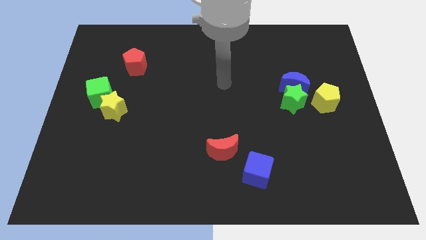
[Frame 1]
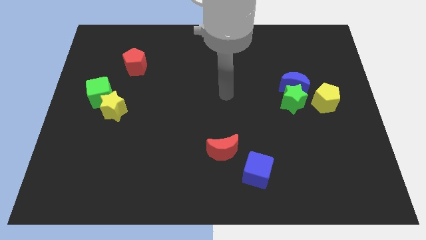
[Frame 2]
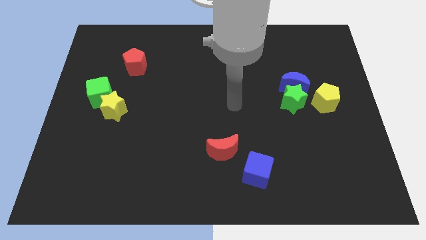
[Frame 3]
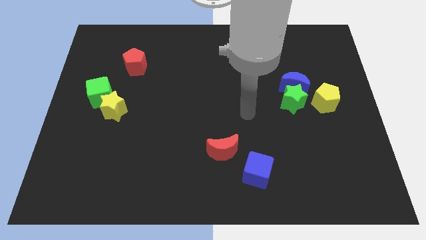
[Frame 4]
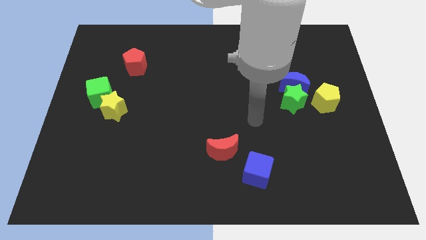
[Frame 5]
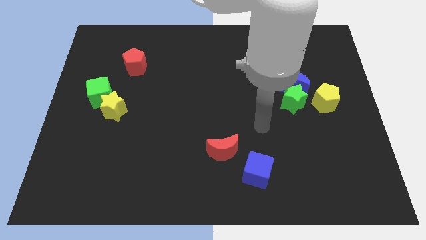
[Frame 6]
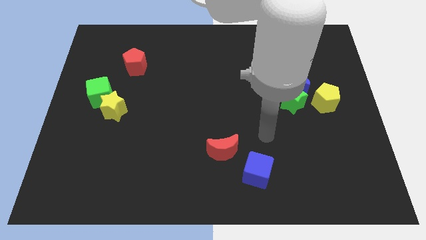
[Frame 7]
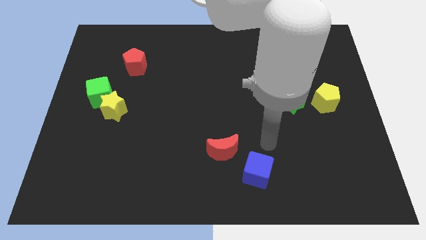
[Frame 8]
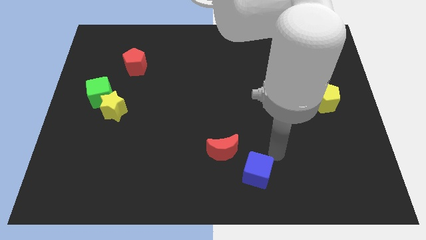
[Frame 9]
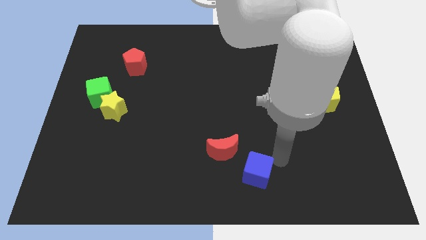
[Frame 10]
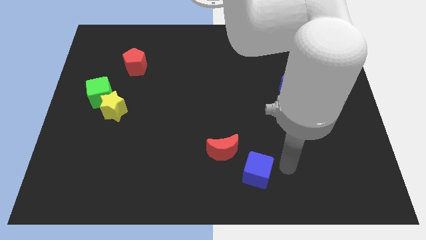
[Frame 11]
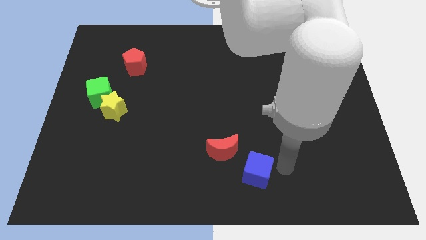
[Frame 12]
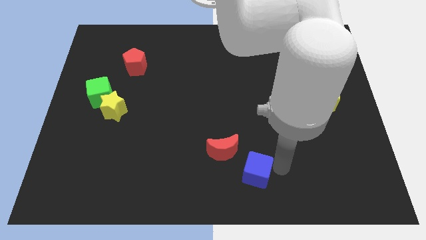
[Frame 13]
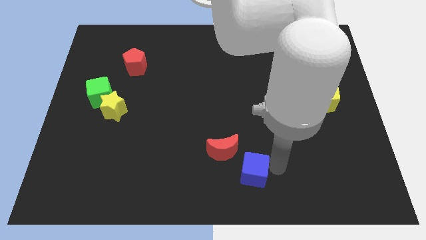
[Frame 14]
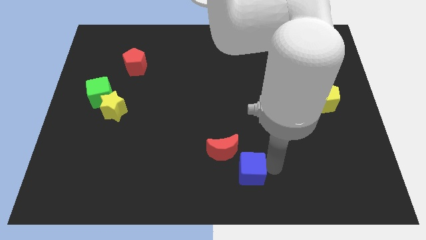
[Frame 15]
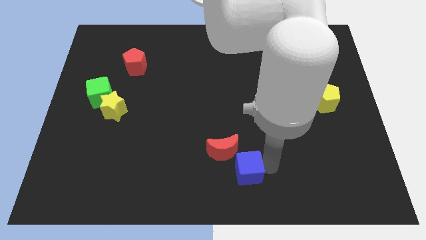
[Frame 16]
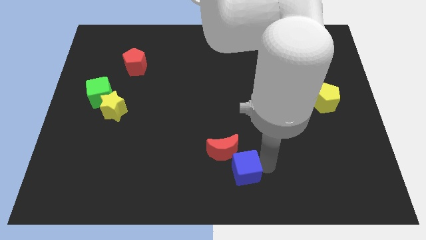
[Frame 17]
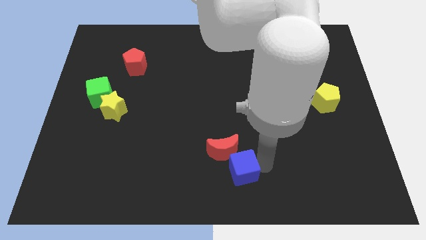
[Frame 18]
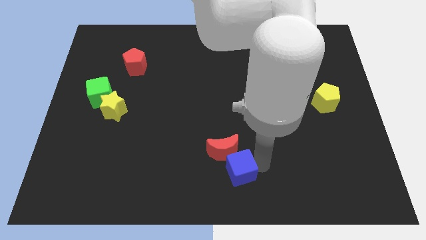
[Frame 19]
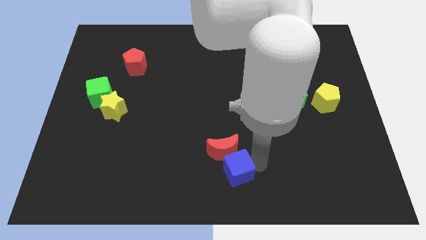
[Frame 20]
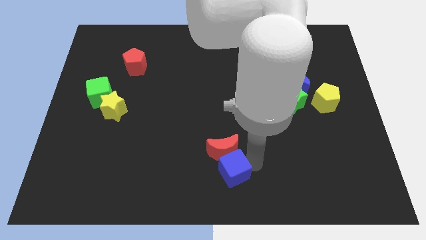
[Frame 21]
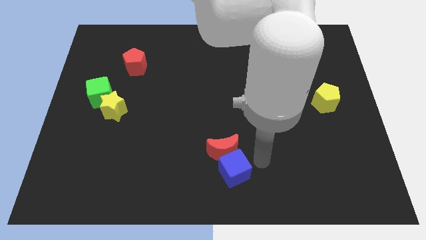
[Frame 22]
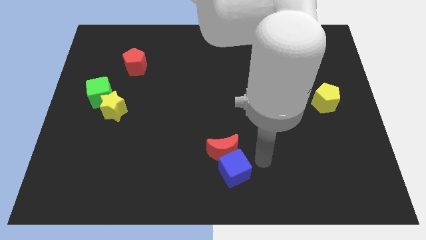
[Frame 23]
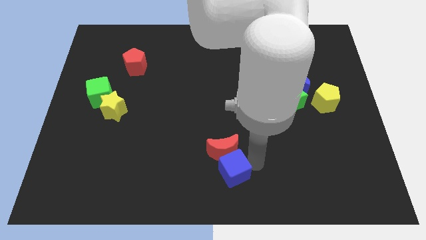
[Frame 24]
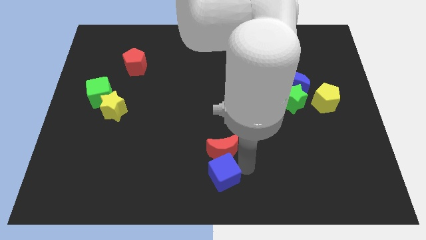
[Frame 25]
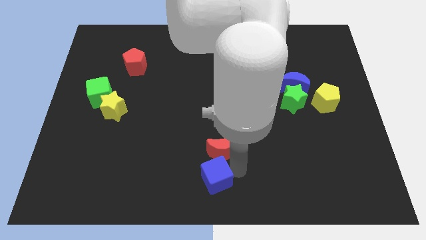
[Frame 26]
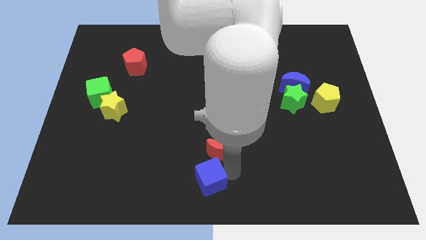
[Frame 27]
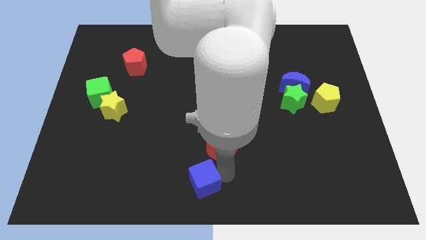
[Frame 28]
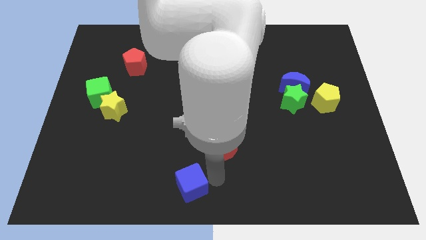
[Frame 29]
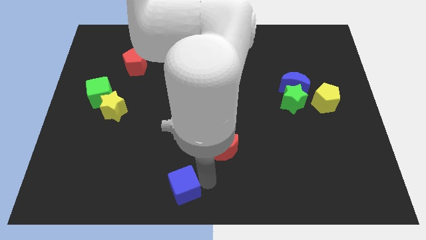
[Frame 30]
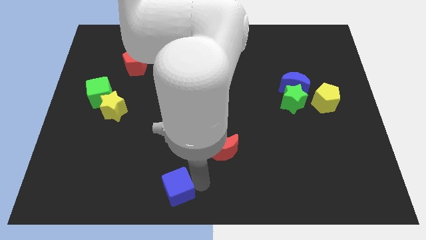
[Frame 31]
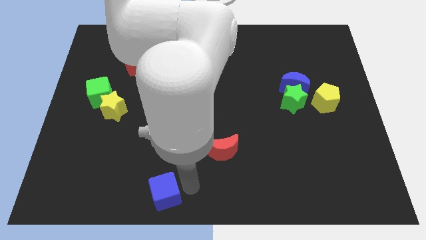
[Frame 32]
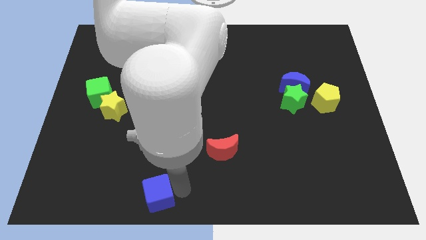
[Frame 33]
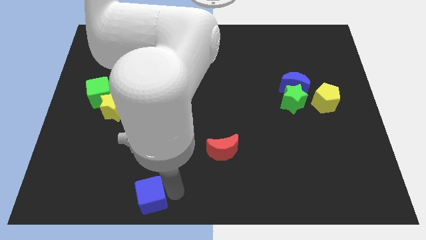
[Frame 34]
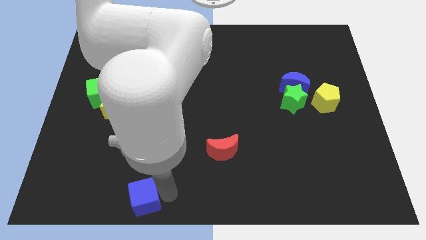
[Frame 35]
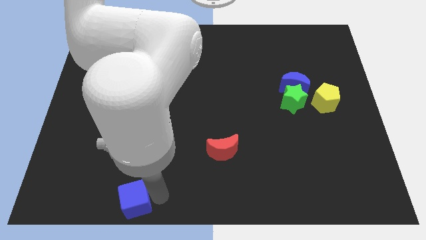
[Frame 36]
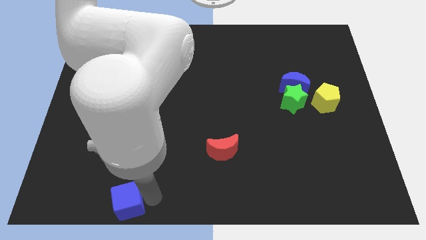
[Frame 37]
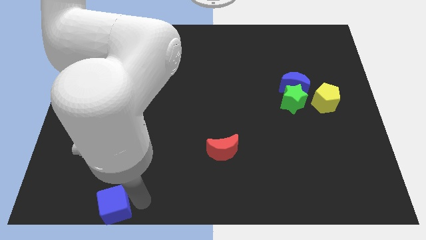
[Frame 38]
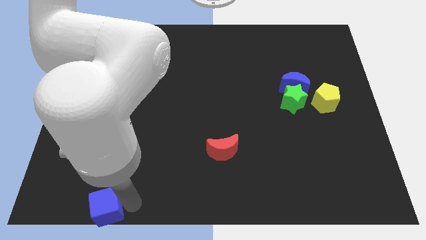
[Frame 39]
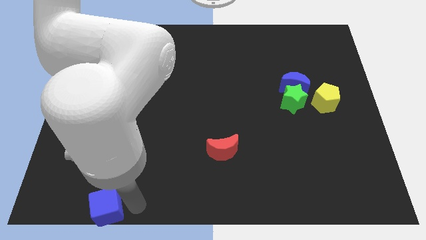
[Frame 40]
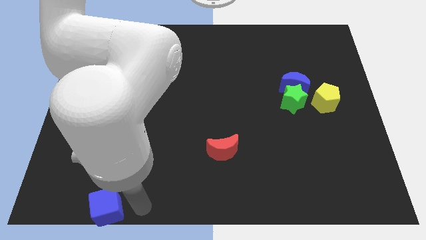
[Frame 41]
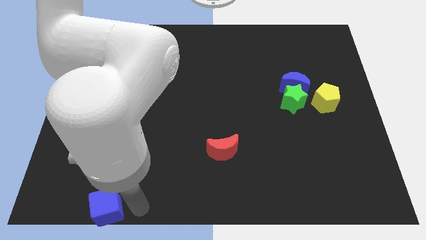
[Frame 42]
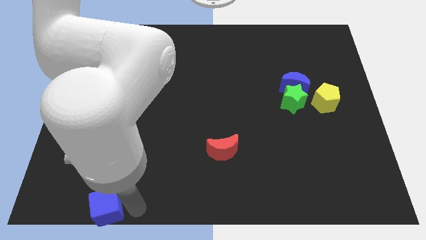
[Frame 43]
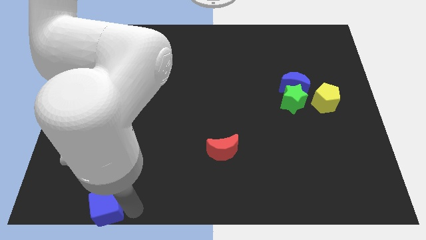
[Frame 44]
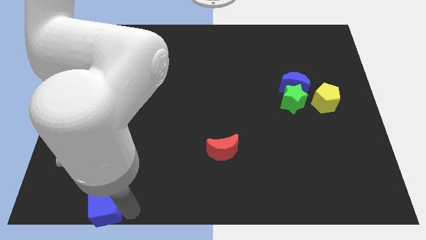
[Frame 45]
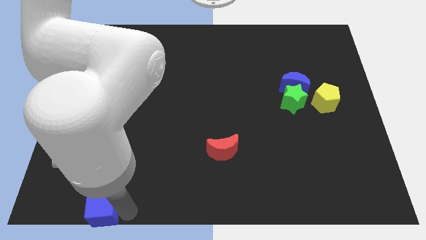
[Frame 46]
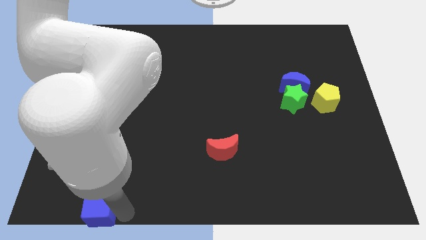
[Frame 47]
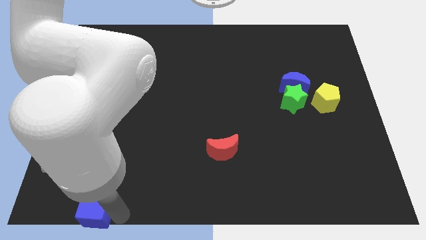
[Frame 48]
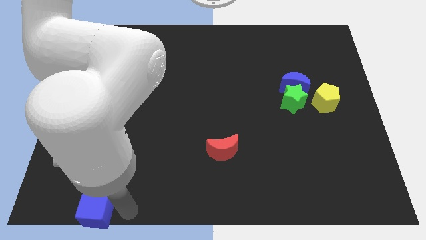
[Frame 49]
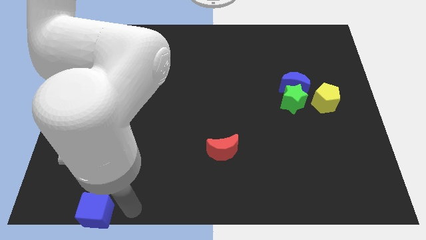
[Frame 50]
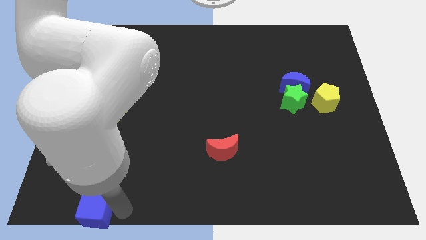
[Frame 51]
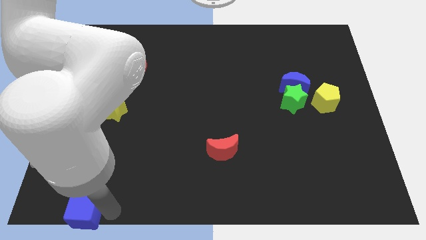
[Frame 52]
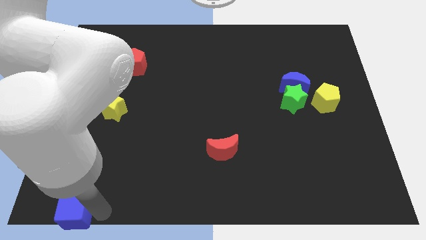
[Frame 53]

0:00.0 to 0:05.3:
move the blue cube to the bottom left of the board
